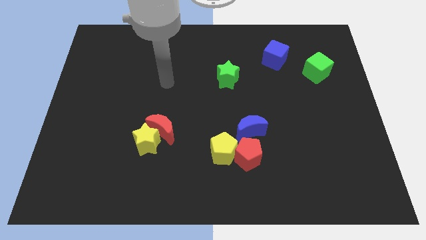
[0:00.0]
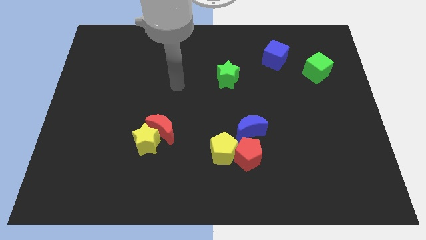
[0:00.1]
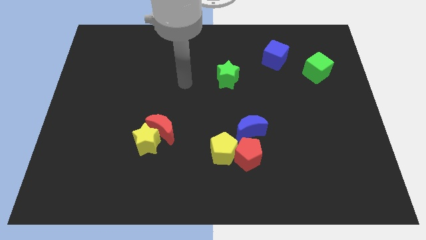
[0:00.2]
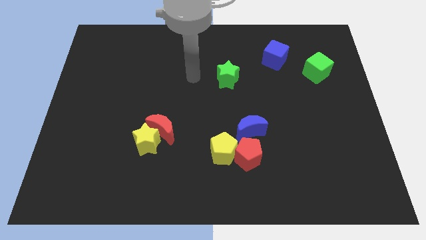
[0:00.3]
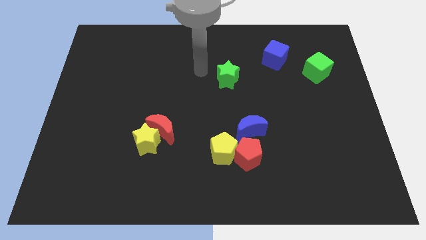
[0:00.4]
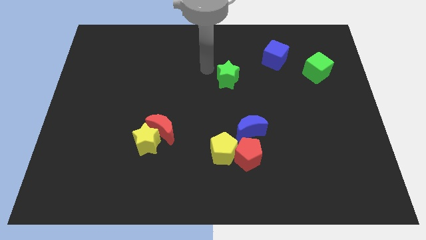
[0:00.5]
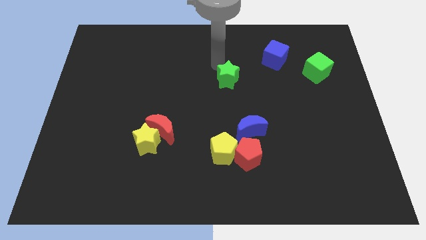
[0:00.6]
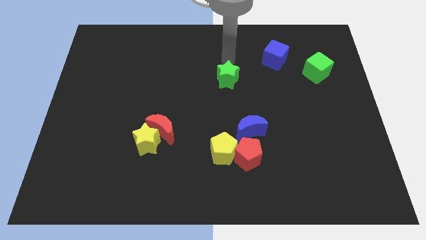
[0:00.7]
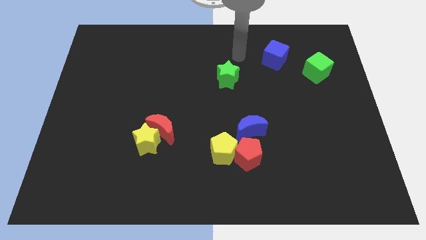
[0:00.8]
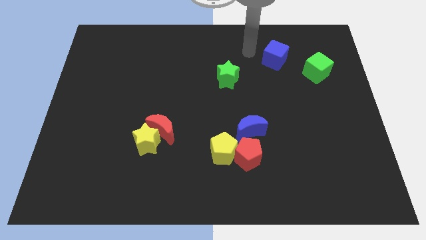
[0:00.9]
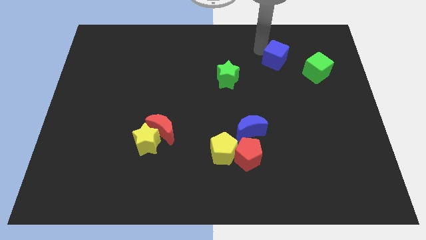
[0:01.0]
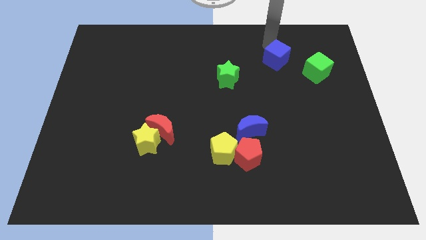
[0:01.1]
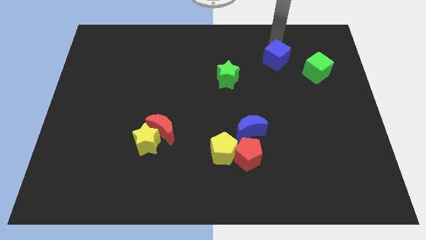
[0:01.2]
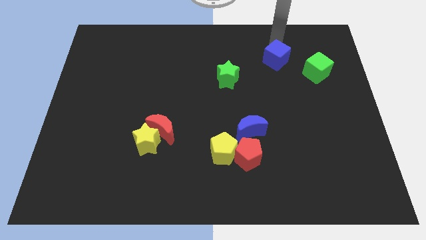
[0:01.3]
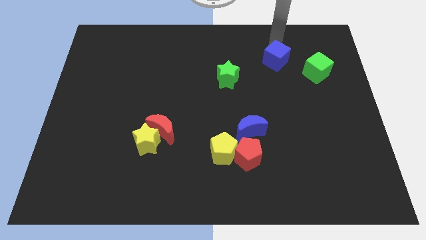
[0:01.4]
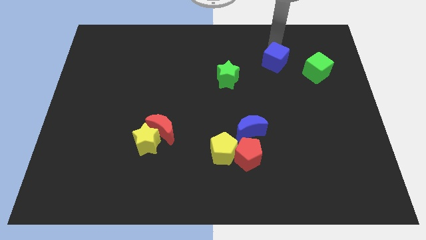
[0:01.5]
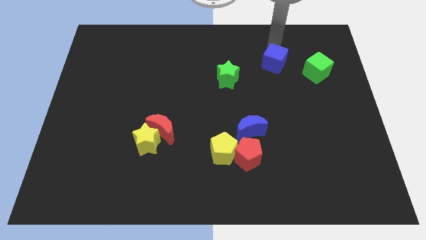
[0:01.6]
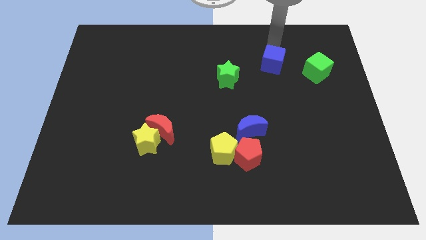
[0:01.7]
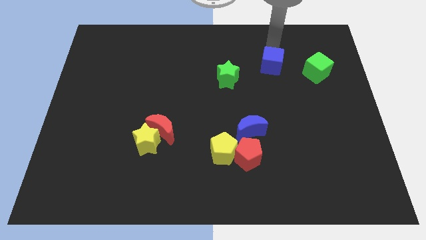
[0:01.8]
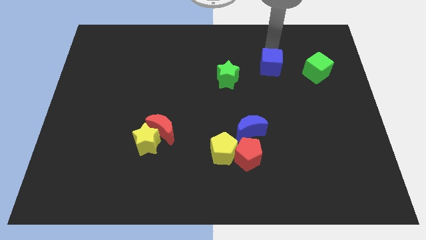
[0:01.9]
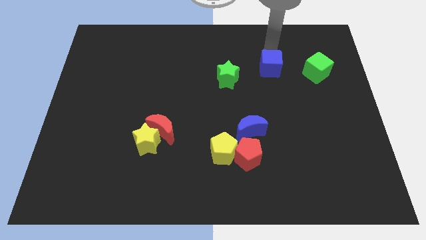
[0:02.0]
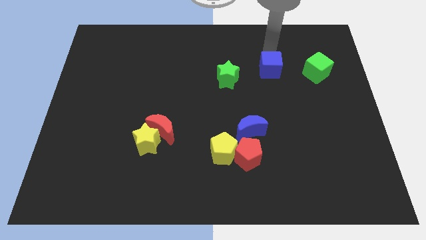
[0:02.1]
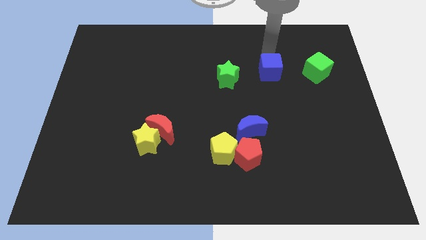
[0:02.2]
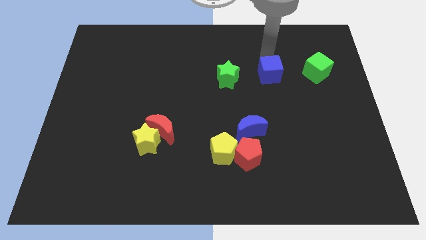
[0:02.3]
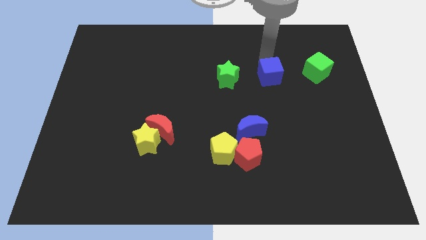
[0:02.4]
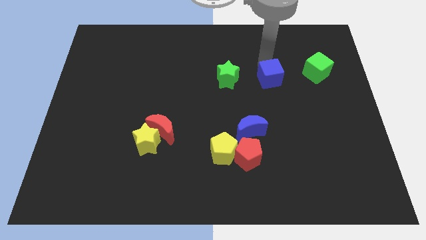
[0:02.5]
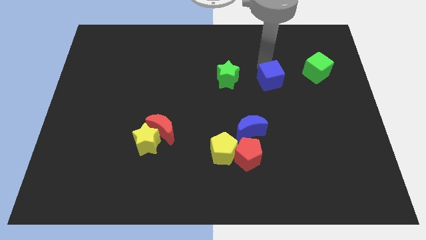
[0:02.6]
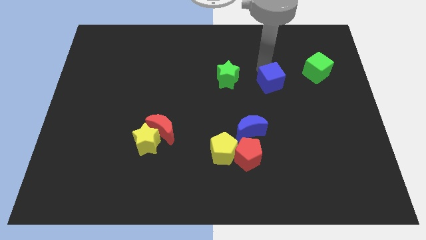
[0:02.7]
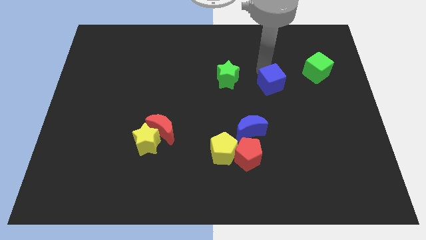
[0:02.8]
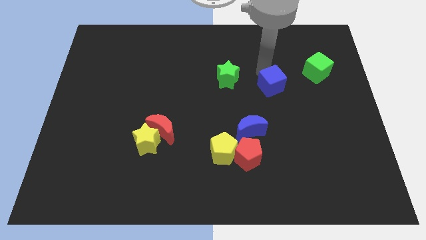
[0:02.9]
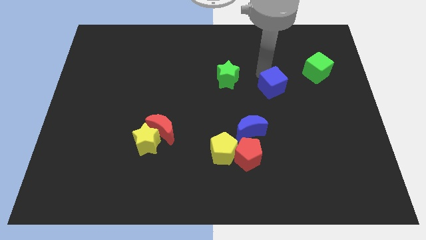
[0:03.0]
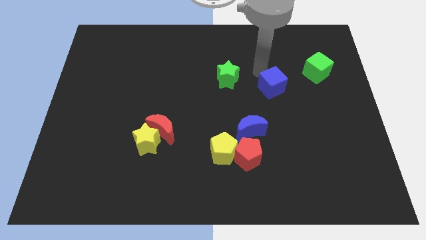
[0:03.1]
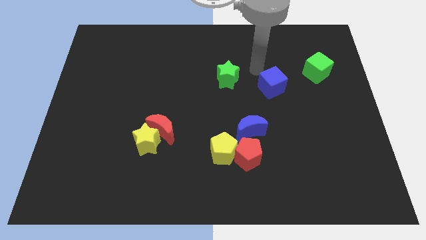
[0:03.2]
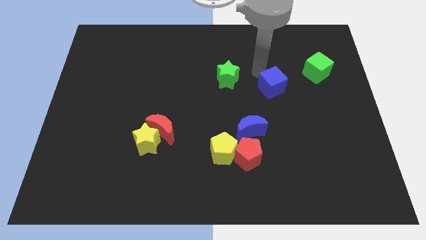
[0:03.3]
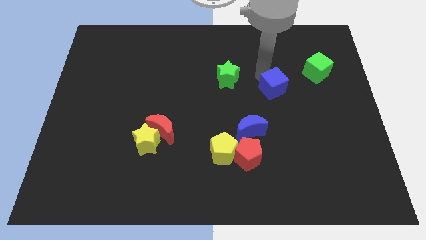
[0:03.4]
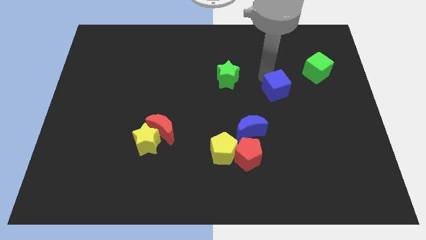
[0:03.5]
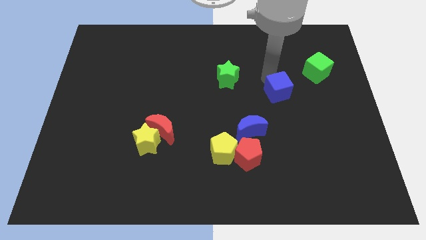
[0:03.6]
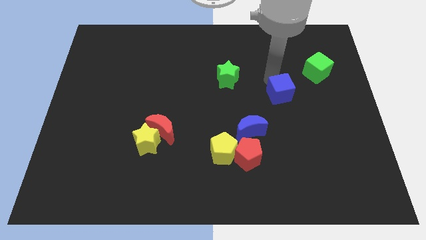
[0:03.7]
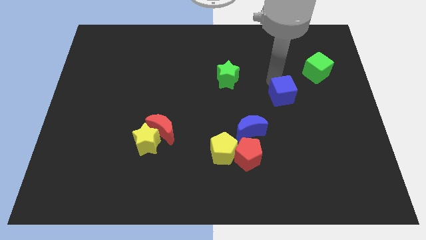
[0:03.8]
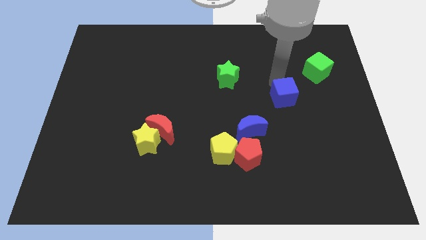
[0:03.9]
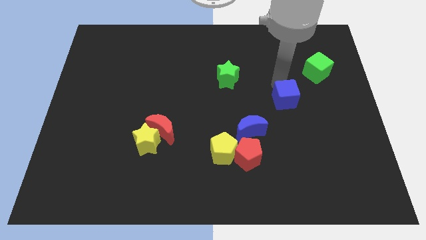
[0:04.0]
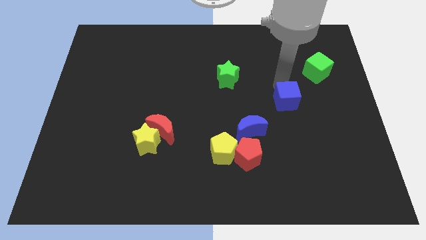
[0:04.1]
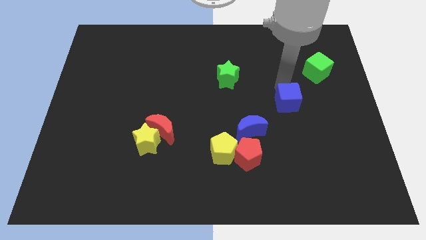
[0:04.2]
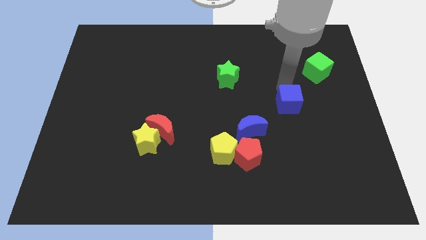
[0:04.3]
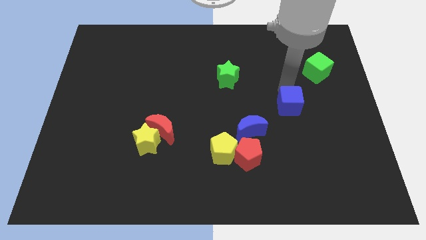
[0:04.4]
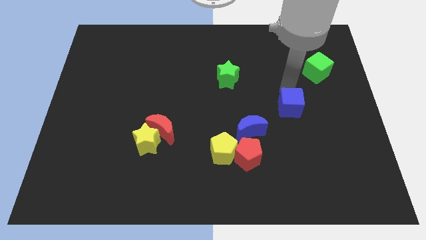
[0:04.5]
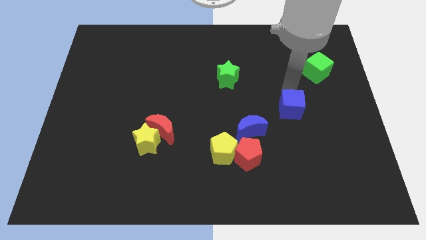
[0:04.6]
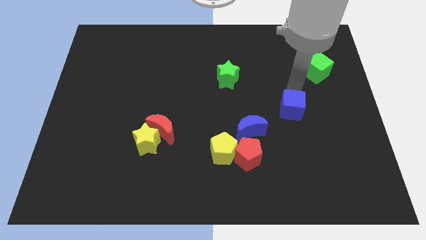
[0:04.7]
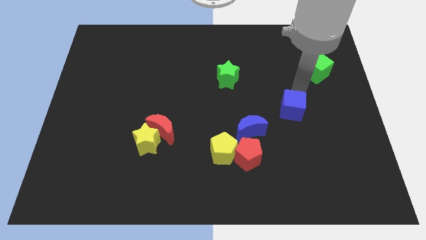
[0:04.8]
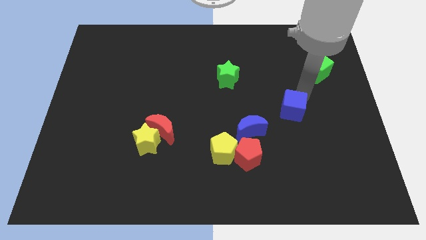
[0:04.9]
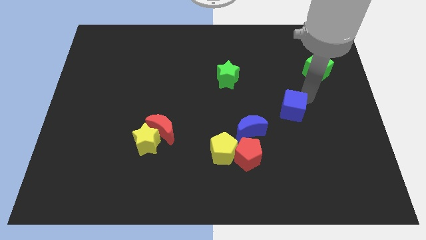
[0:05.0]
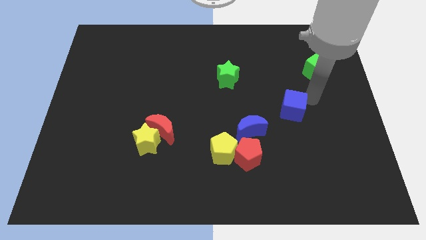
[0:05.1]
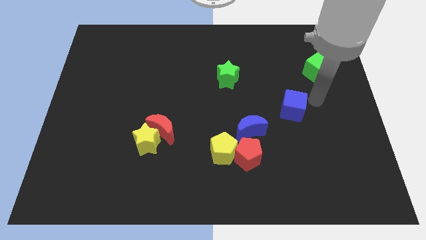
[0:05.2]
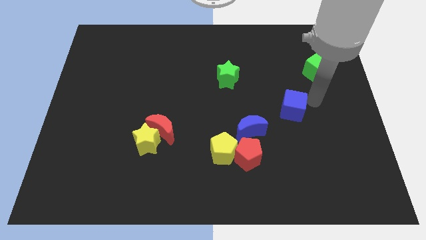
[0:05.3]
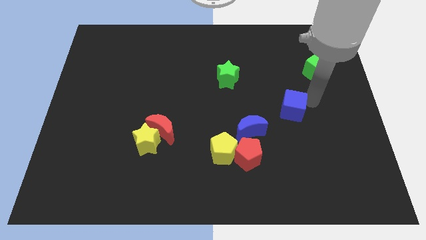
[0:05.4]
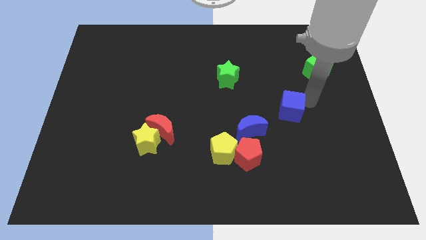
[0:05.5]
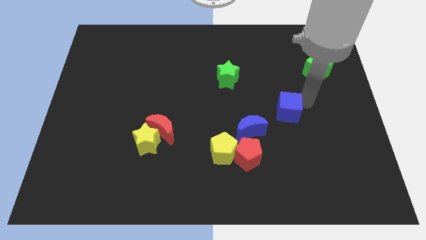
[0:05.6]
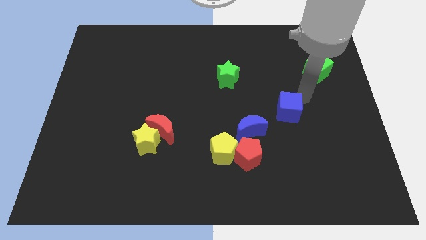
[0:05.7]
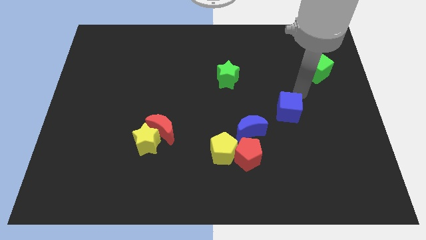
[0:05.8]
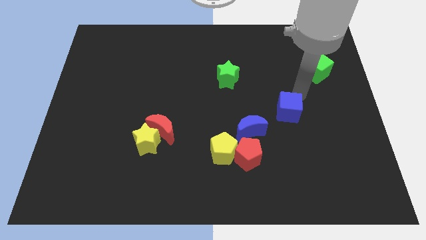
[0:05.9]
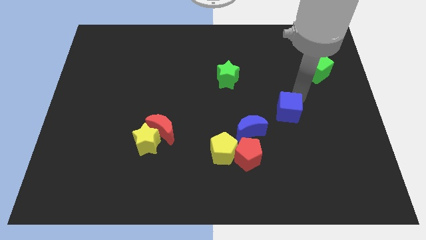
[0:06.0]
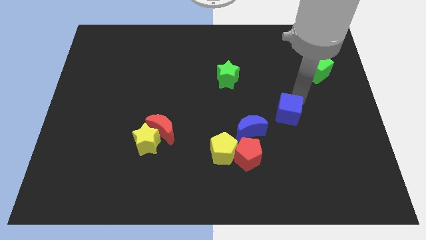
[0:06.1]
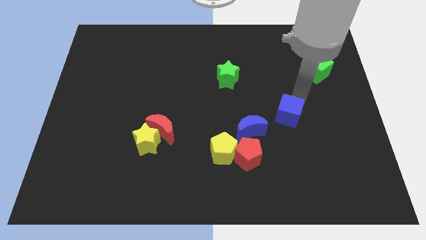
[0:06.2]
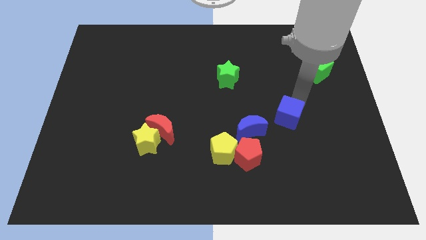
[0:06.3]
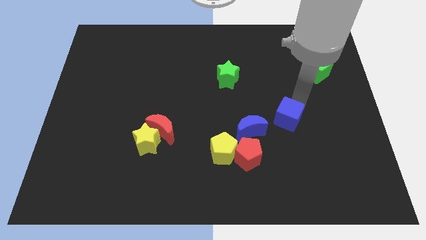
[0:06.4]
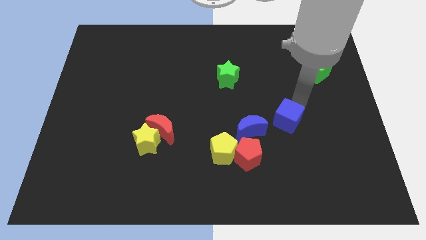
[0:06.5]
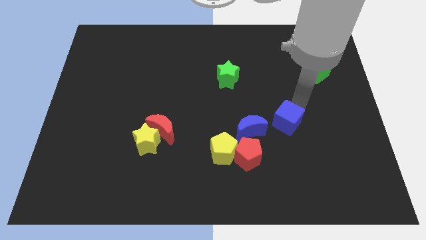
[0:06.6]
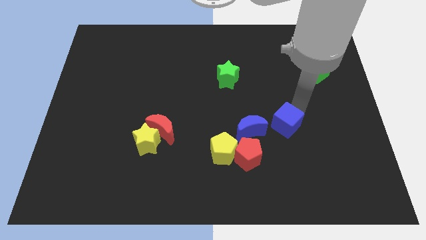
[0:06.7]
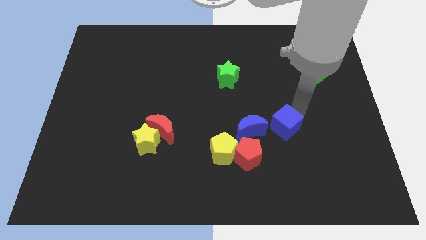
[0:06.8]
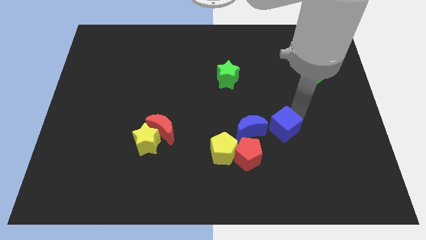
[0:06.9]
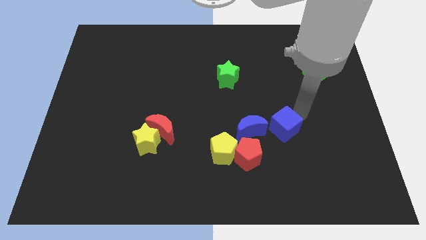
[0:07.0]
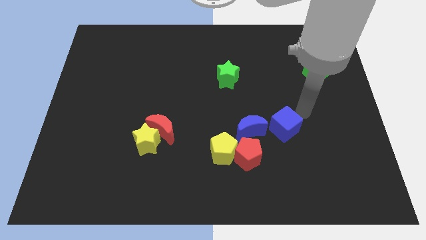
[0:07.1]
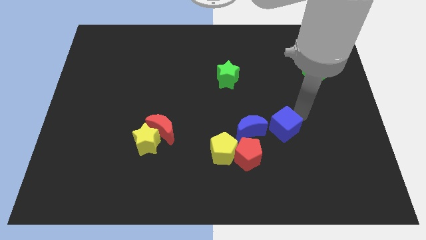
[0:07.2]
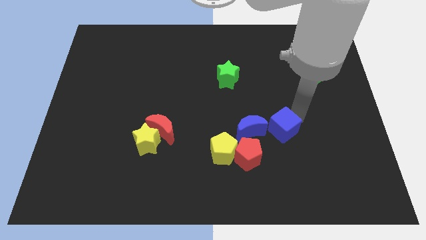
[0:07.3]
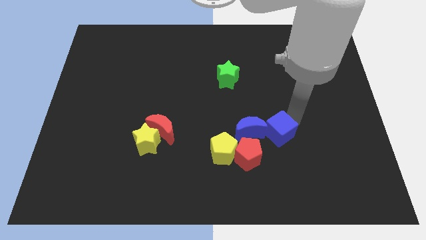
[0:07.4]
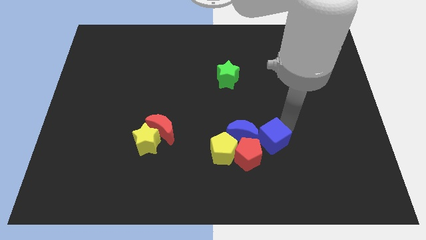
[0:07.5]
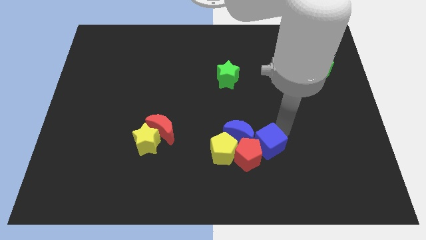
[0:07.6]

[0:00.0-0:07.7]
slide the blue cube next to the red pentagon
